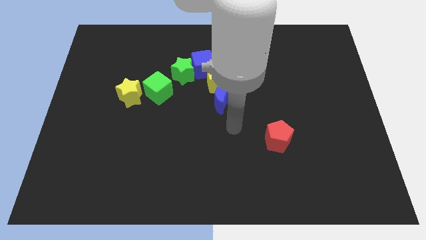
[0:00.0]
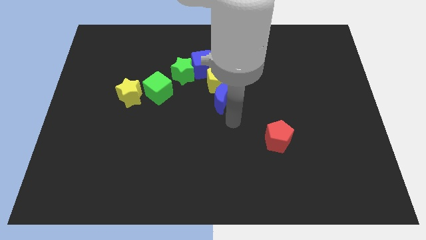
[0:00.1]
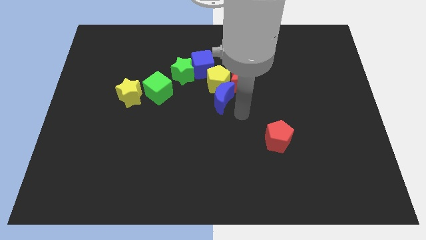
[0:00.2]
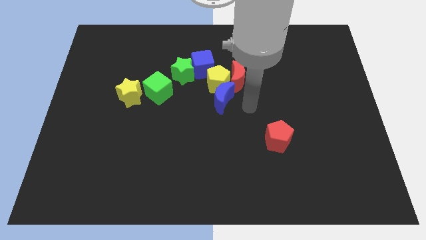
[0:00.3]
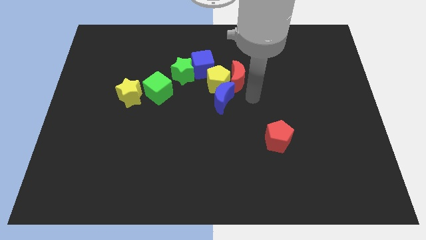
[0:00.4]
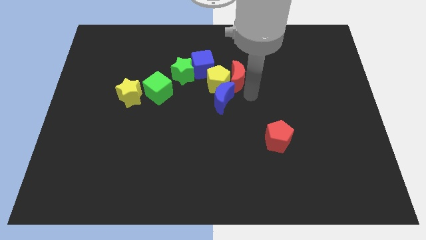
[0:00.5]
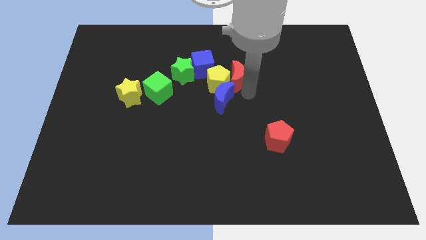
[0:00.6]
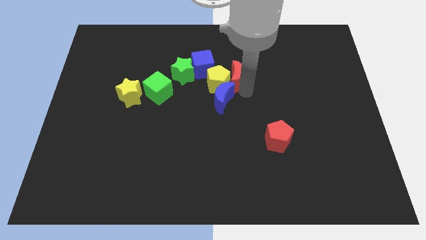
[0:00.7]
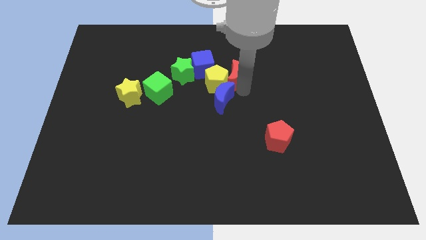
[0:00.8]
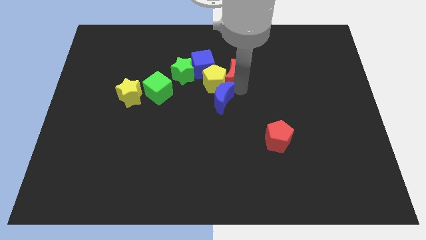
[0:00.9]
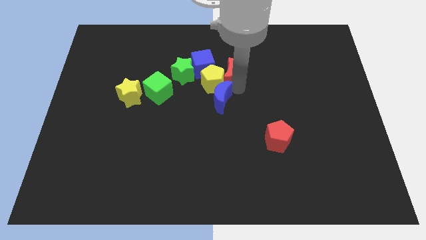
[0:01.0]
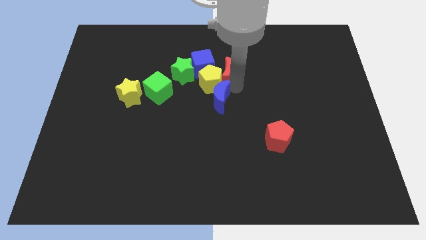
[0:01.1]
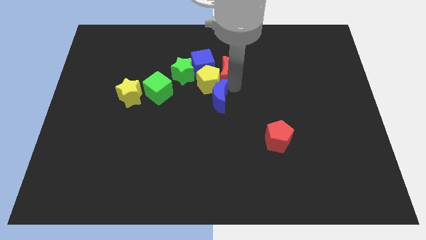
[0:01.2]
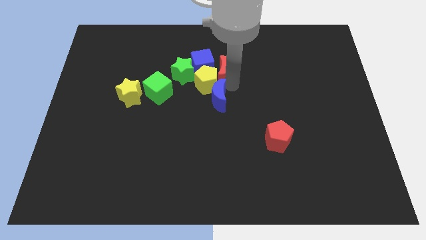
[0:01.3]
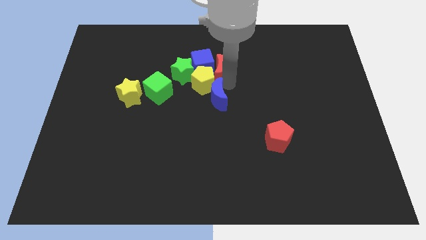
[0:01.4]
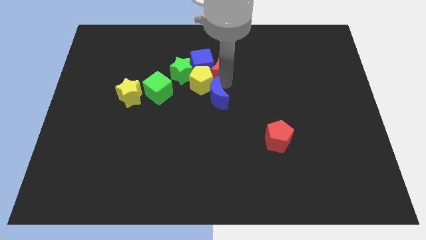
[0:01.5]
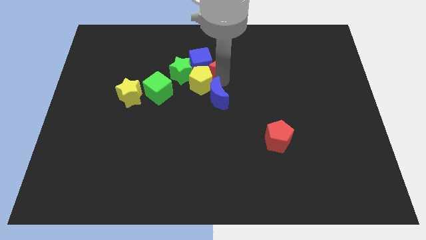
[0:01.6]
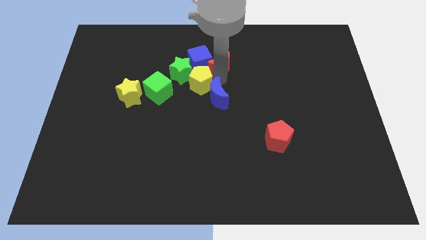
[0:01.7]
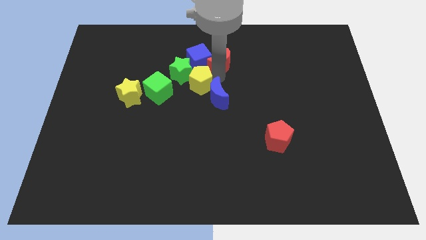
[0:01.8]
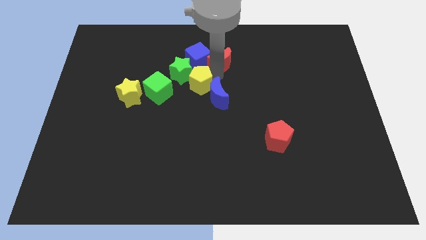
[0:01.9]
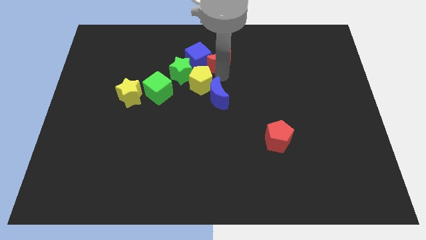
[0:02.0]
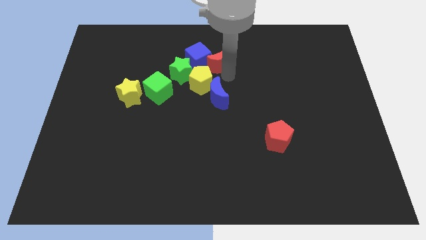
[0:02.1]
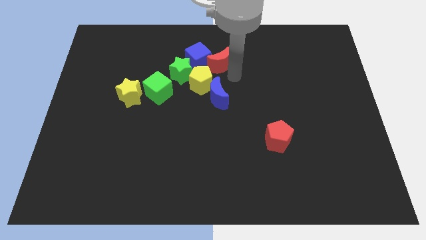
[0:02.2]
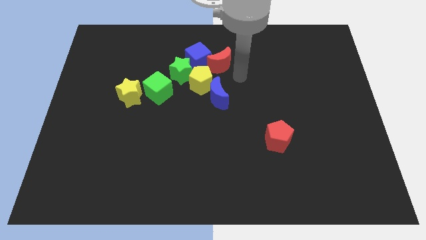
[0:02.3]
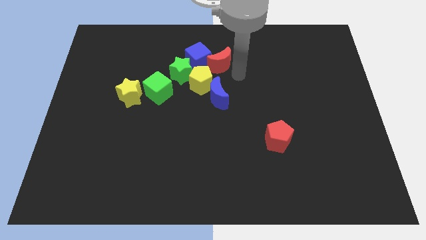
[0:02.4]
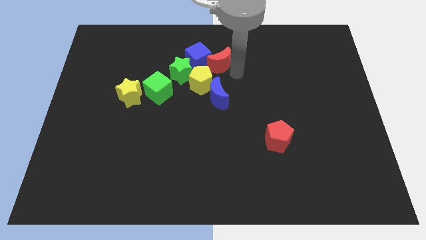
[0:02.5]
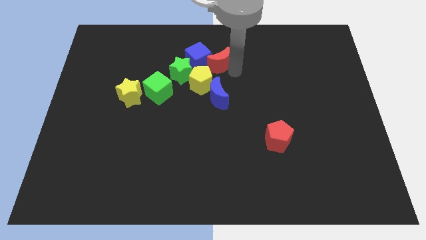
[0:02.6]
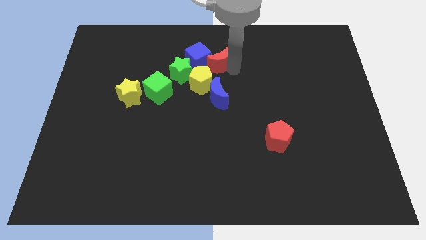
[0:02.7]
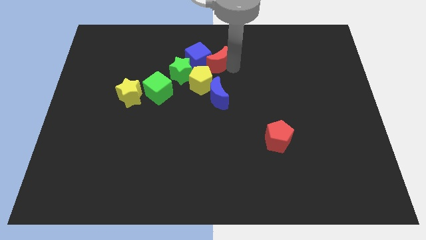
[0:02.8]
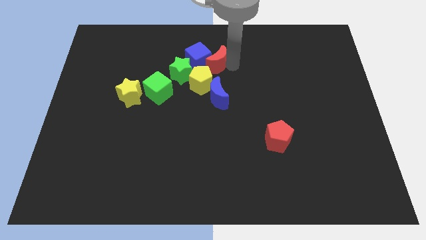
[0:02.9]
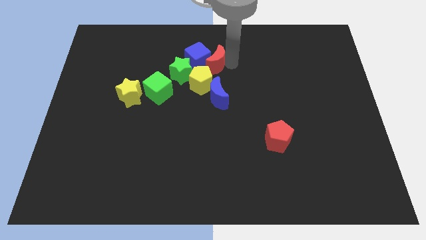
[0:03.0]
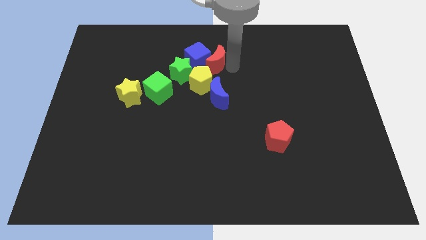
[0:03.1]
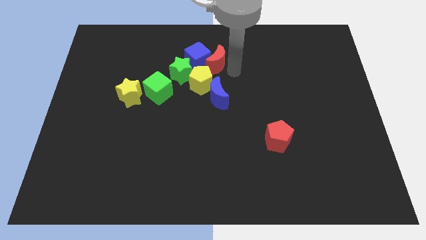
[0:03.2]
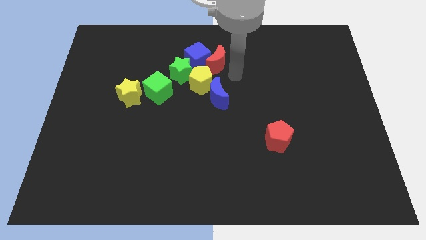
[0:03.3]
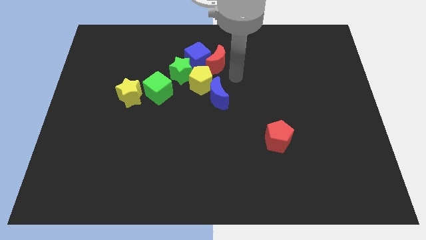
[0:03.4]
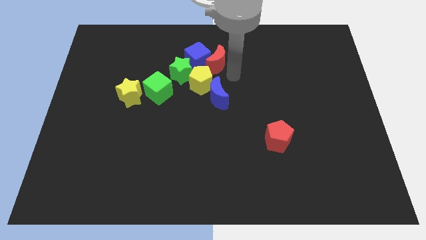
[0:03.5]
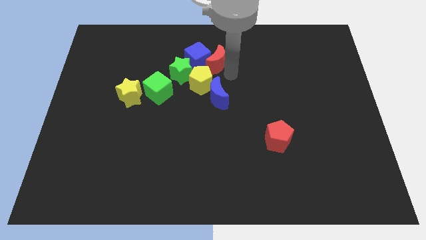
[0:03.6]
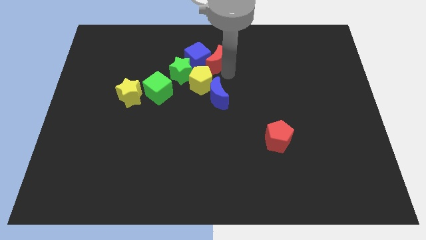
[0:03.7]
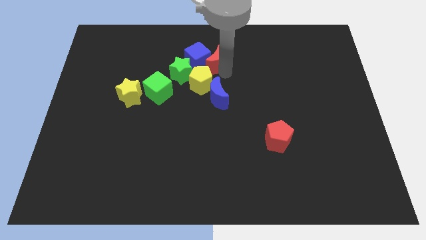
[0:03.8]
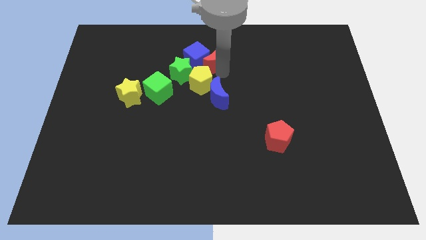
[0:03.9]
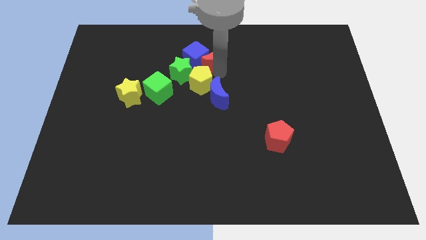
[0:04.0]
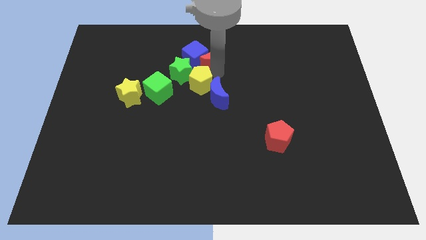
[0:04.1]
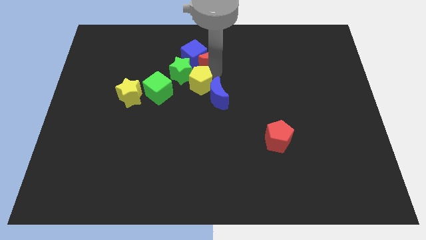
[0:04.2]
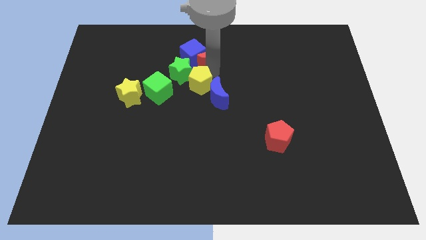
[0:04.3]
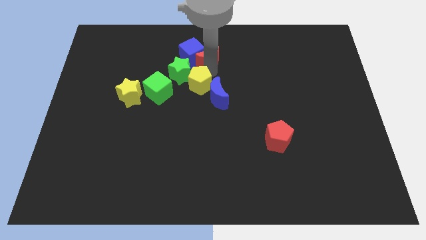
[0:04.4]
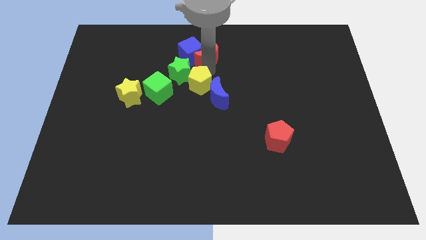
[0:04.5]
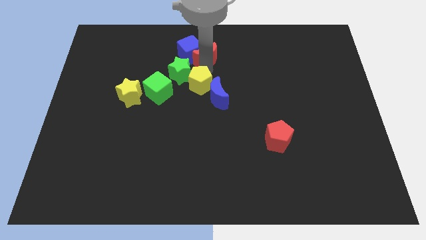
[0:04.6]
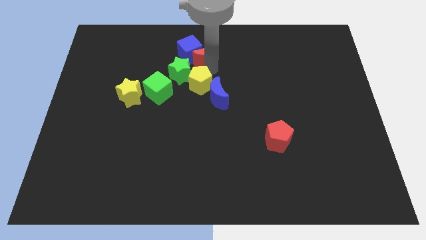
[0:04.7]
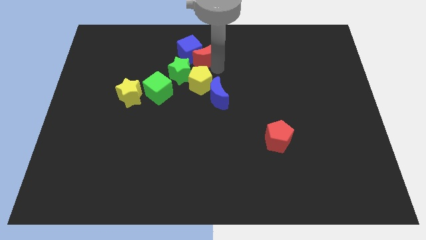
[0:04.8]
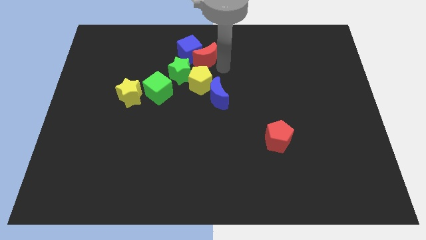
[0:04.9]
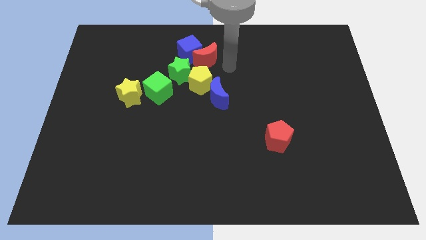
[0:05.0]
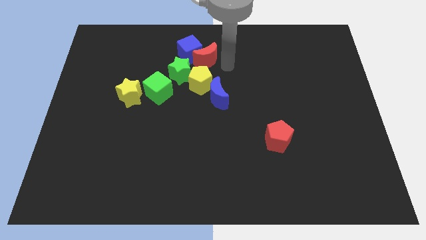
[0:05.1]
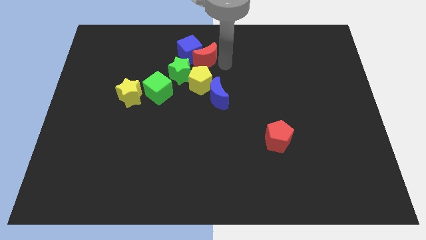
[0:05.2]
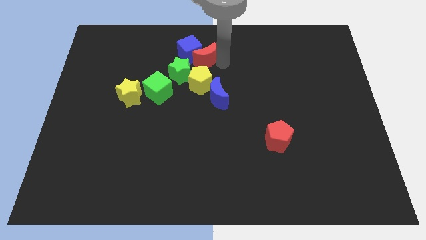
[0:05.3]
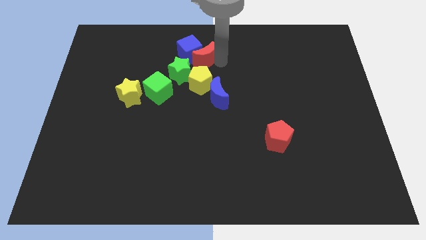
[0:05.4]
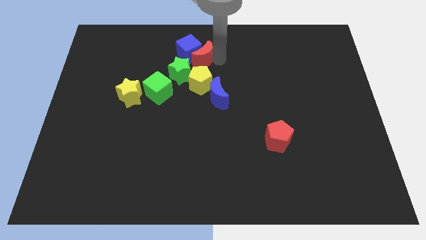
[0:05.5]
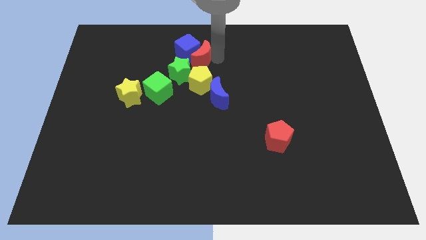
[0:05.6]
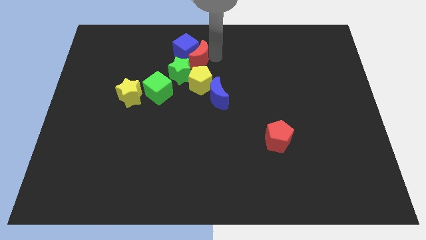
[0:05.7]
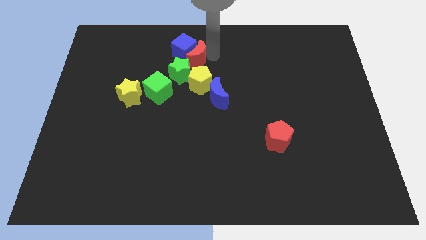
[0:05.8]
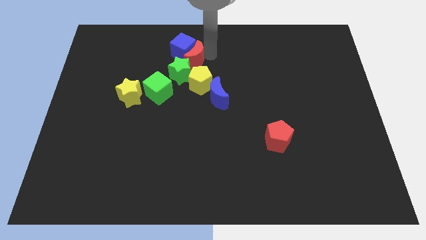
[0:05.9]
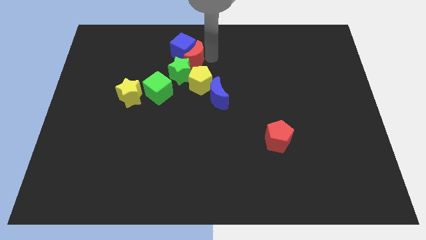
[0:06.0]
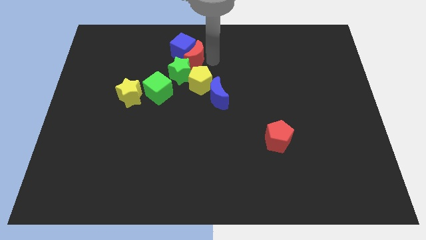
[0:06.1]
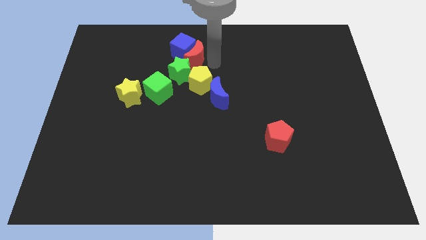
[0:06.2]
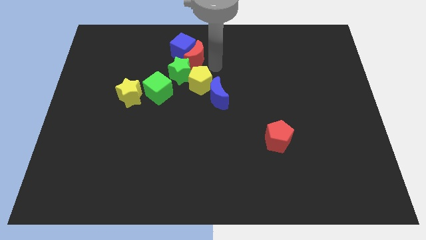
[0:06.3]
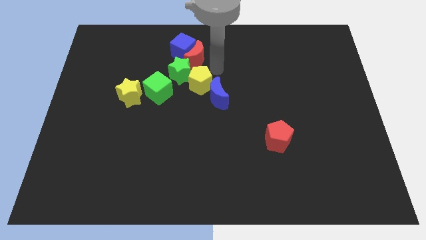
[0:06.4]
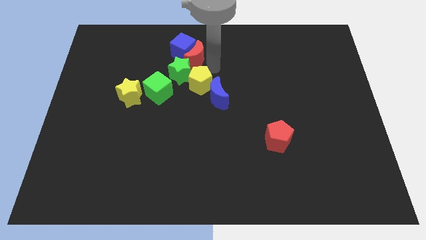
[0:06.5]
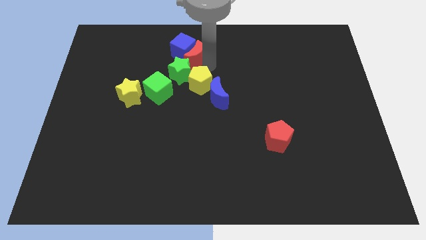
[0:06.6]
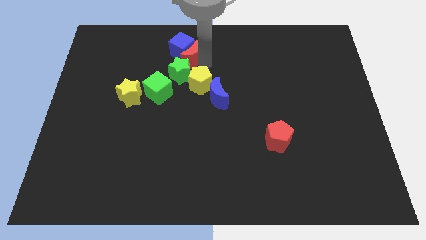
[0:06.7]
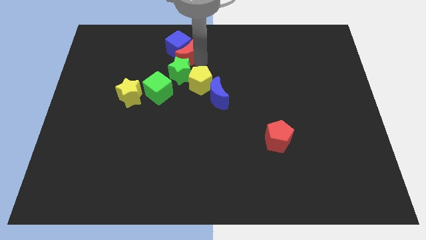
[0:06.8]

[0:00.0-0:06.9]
move the red moon to the green star
